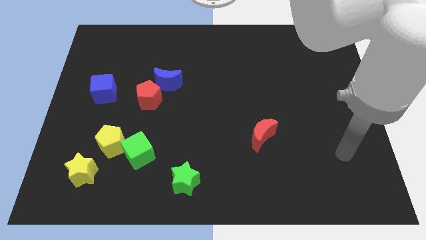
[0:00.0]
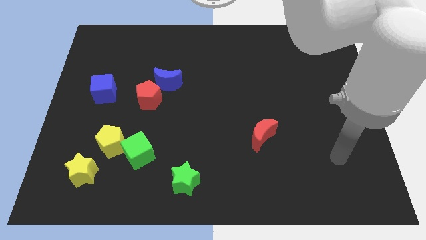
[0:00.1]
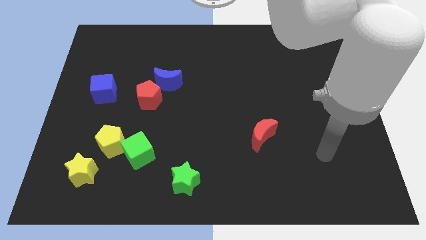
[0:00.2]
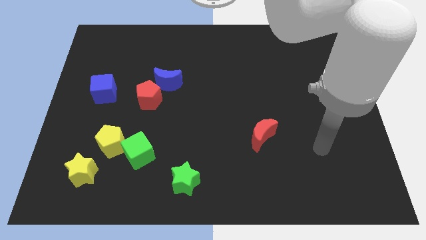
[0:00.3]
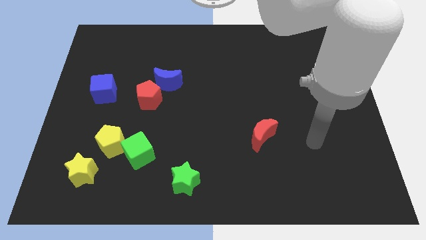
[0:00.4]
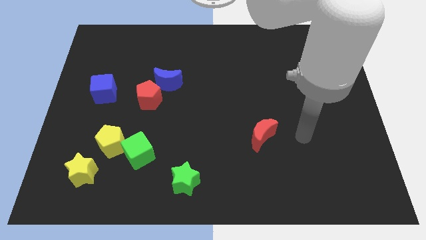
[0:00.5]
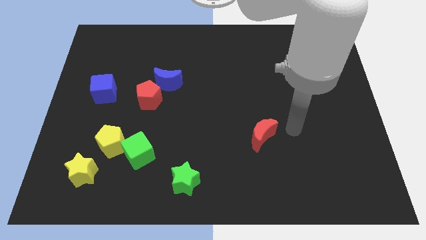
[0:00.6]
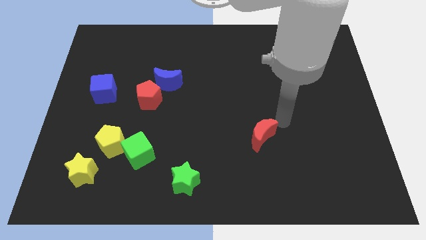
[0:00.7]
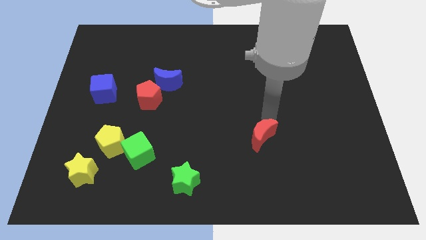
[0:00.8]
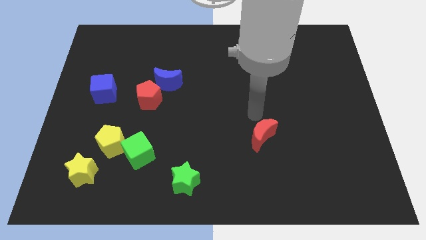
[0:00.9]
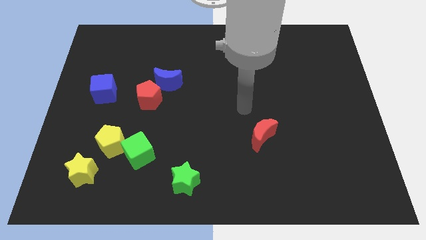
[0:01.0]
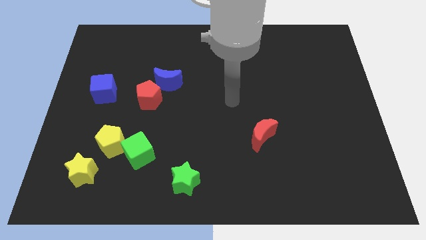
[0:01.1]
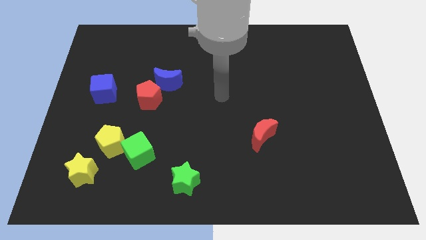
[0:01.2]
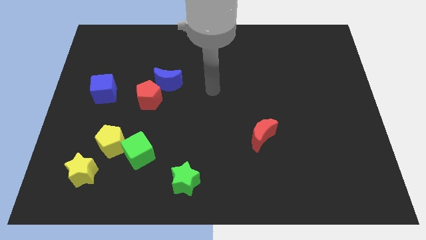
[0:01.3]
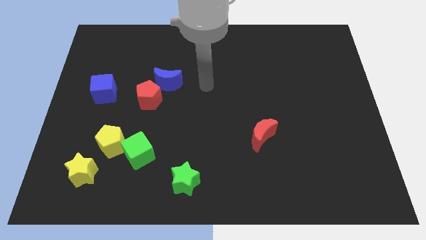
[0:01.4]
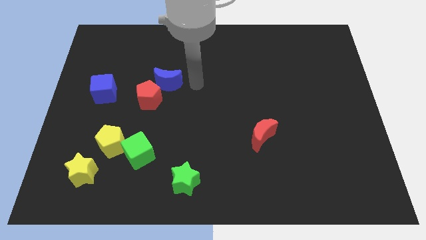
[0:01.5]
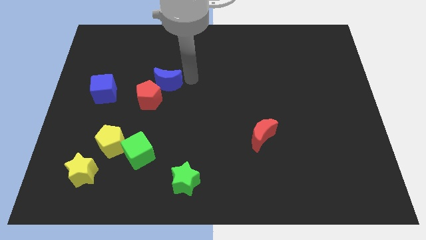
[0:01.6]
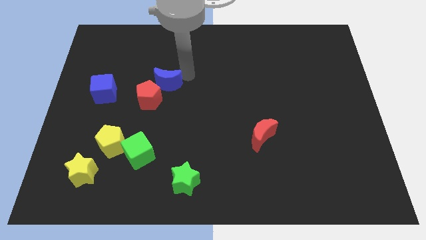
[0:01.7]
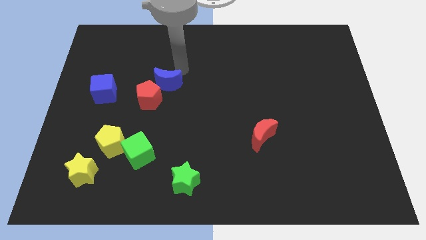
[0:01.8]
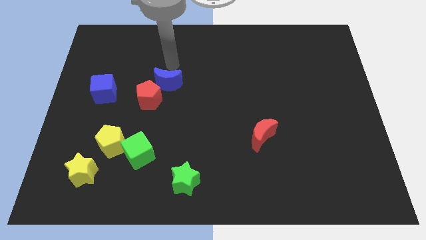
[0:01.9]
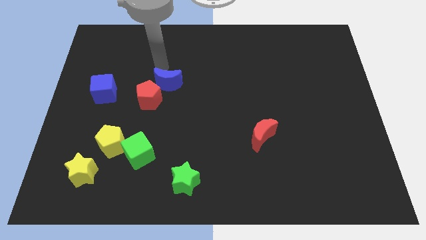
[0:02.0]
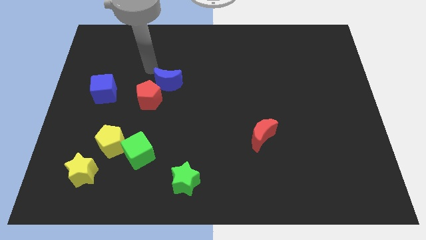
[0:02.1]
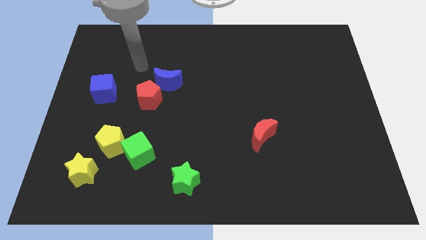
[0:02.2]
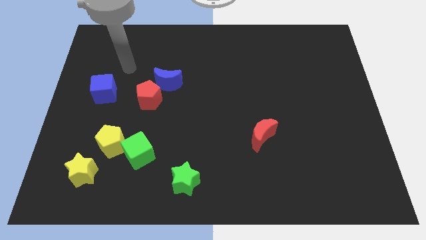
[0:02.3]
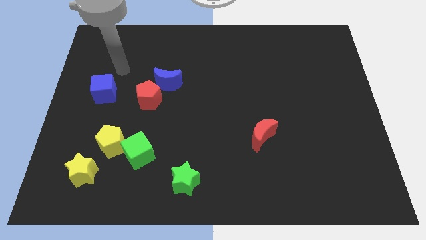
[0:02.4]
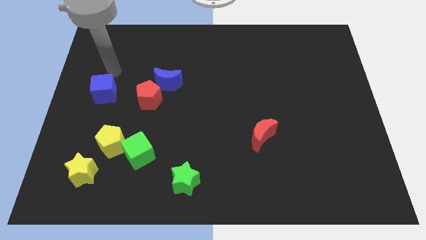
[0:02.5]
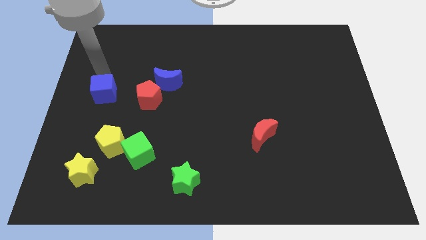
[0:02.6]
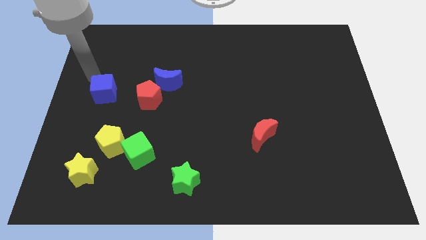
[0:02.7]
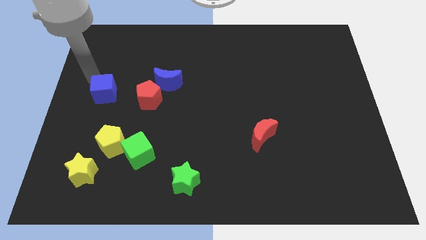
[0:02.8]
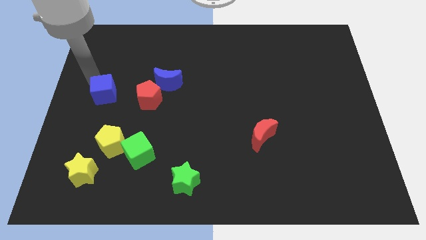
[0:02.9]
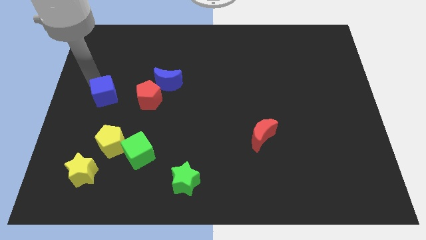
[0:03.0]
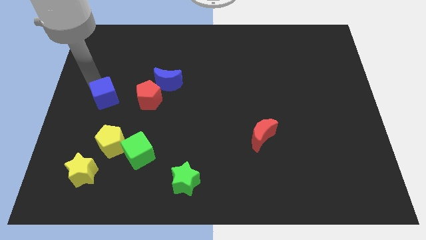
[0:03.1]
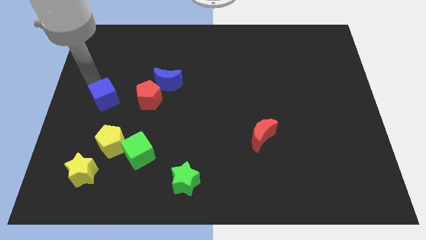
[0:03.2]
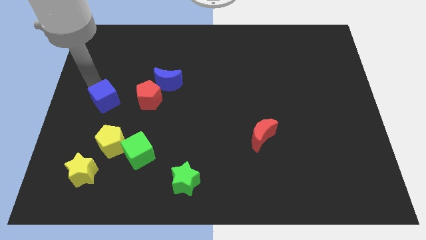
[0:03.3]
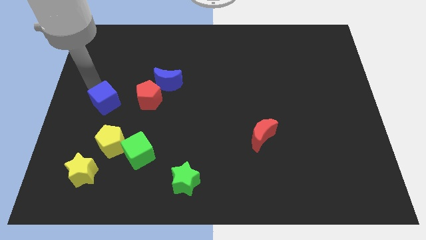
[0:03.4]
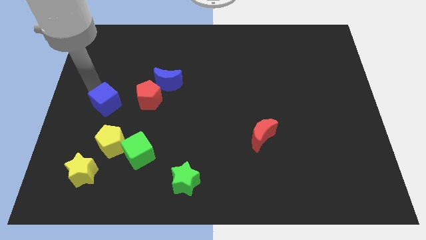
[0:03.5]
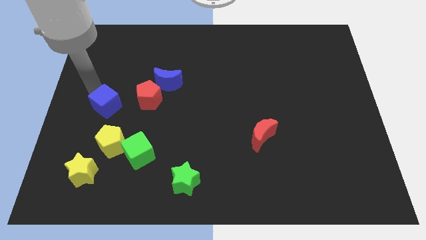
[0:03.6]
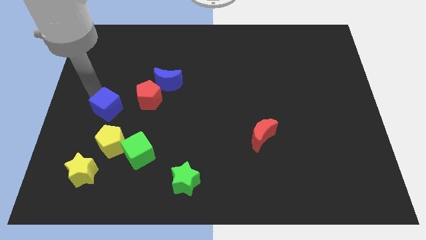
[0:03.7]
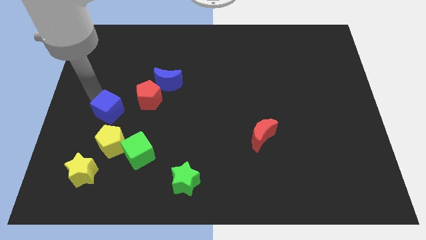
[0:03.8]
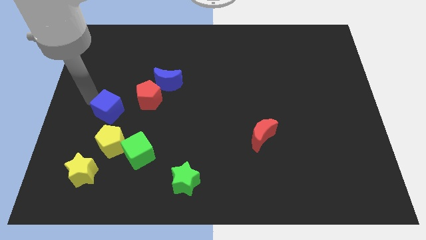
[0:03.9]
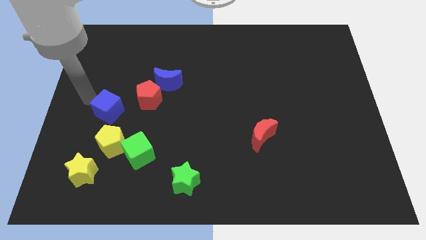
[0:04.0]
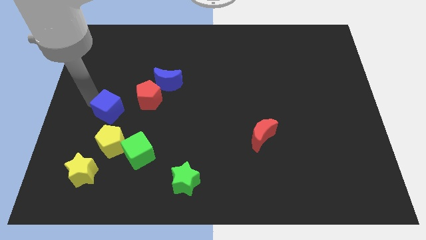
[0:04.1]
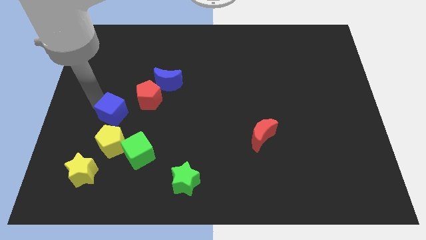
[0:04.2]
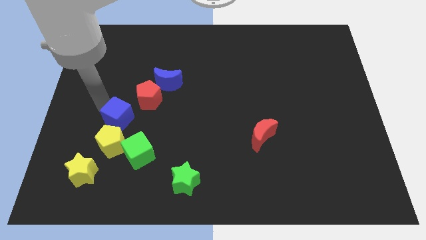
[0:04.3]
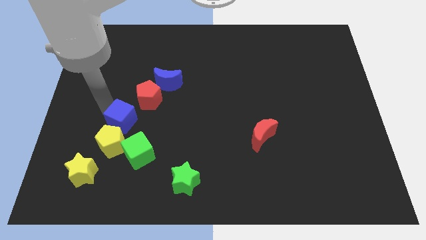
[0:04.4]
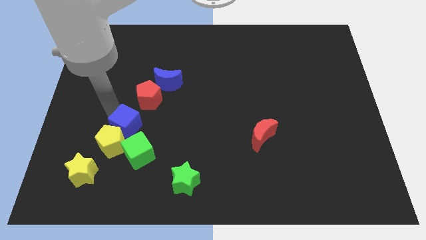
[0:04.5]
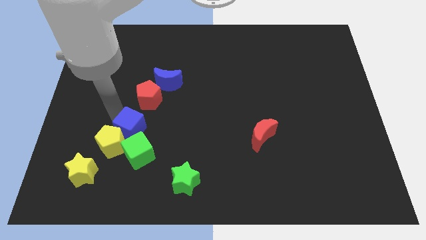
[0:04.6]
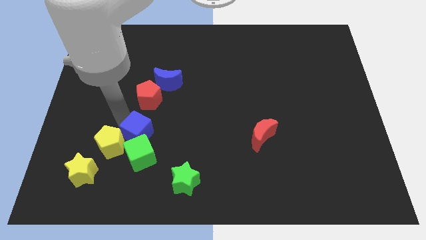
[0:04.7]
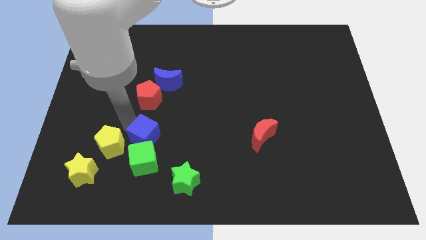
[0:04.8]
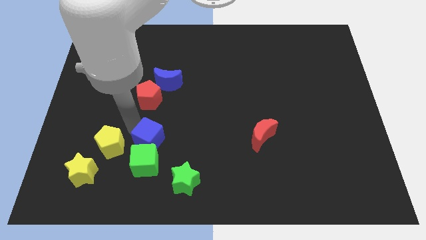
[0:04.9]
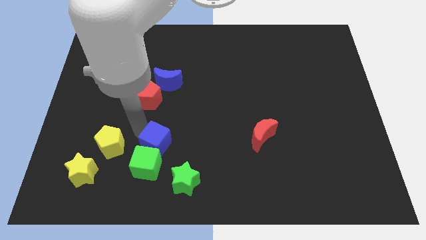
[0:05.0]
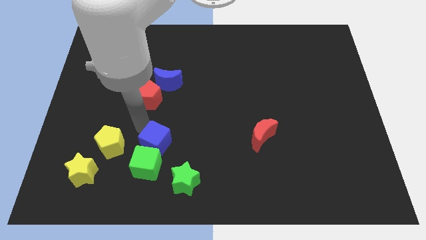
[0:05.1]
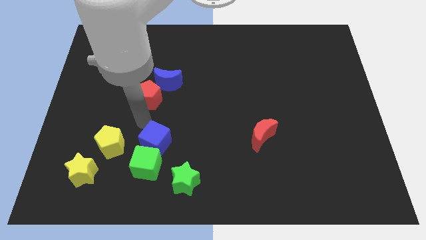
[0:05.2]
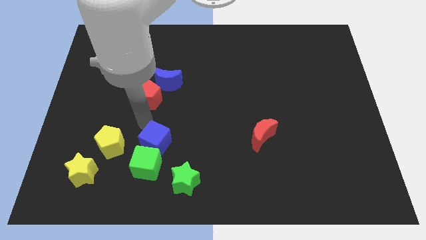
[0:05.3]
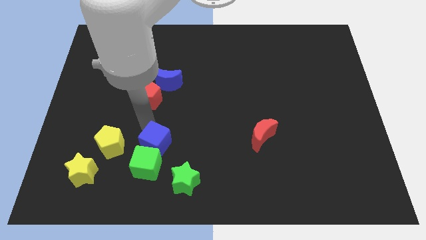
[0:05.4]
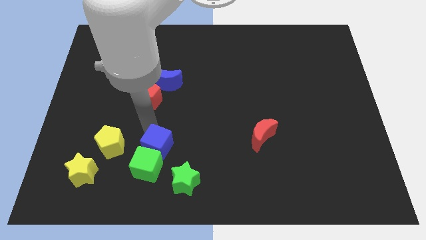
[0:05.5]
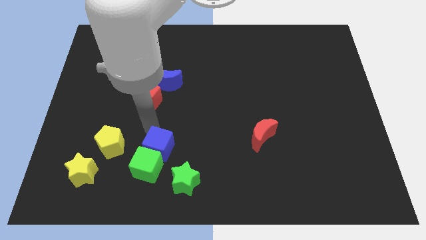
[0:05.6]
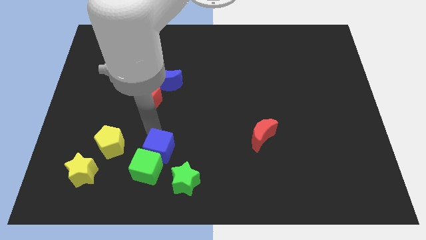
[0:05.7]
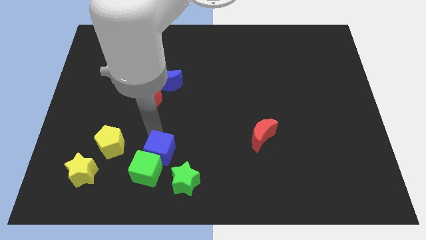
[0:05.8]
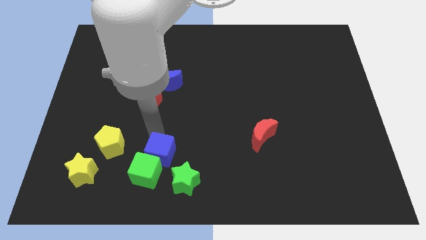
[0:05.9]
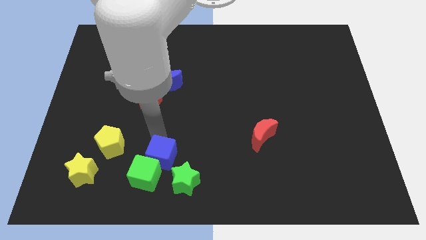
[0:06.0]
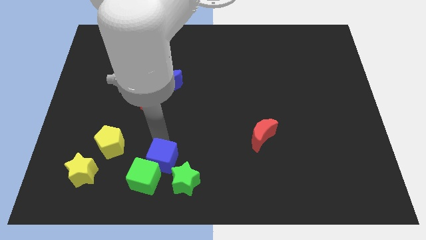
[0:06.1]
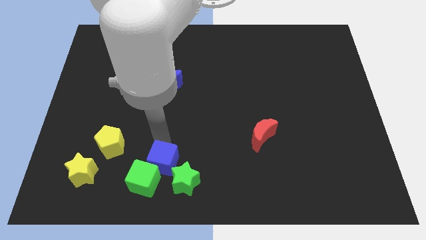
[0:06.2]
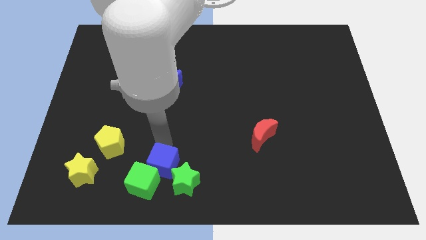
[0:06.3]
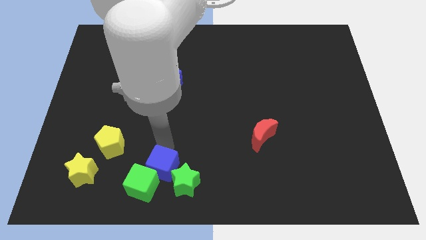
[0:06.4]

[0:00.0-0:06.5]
move the blue cube towards the green star

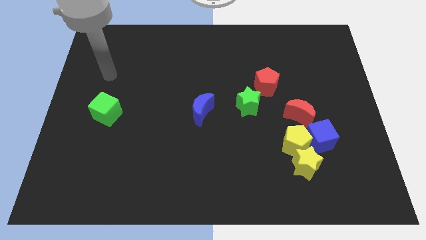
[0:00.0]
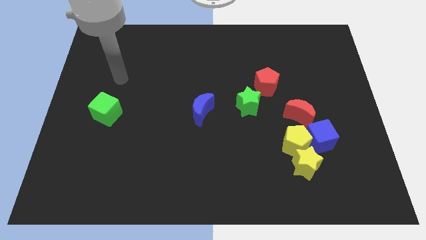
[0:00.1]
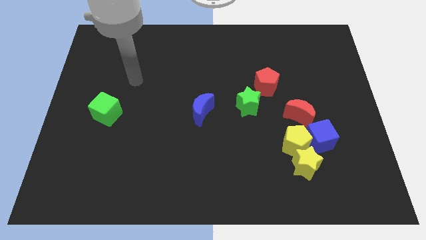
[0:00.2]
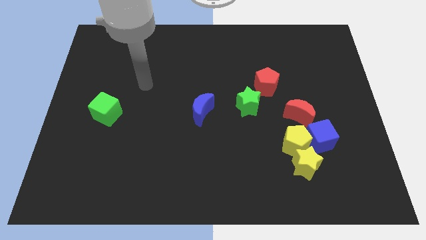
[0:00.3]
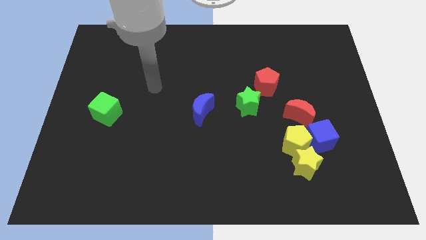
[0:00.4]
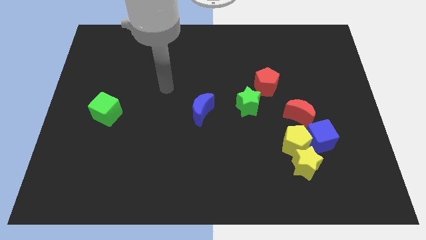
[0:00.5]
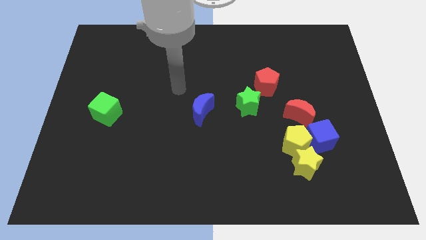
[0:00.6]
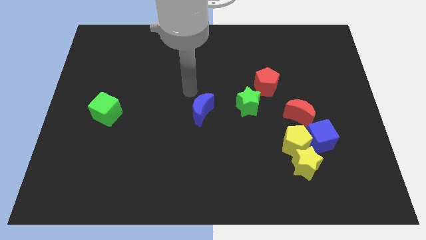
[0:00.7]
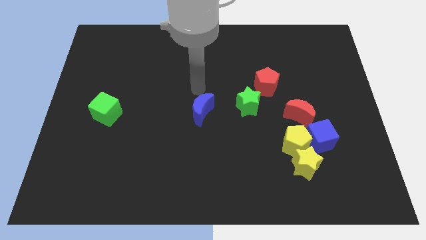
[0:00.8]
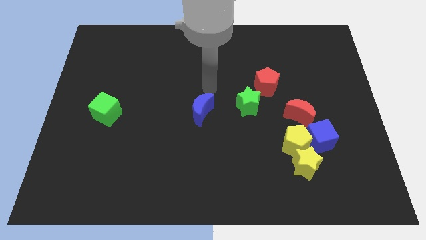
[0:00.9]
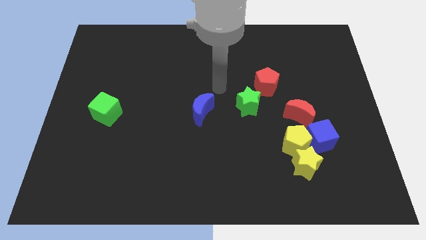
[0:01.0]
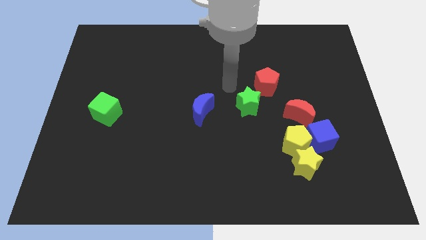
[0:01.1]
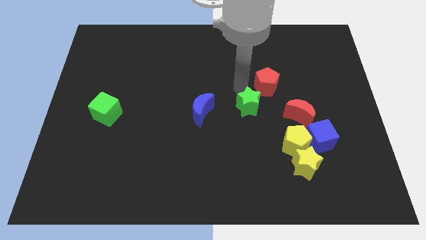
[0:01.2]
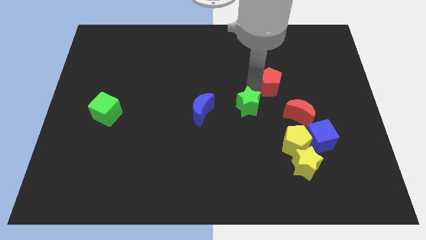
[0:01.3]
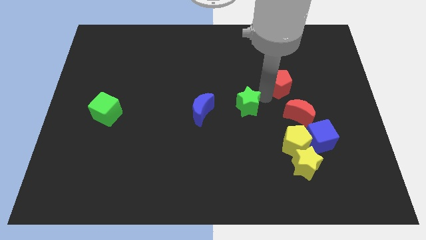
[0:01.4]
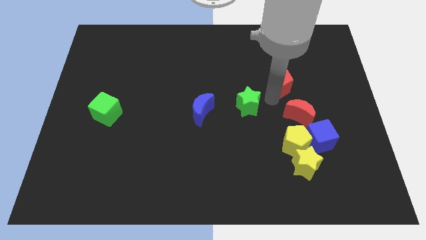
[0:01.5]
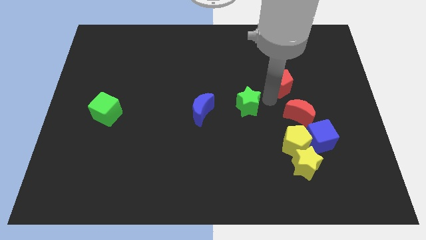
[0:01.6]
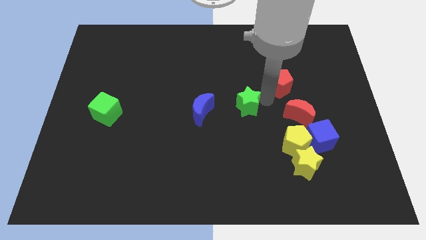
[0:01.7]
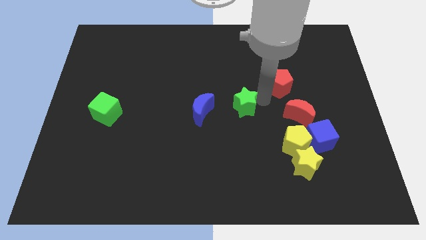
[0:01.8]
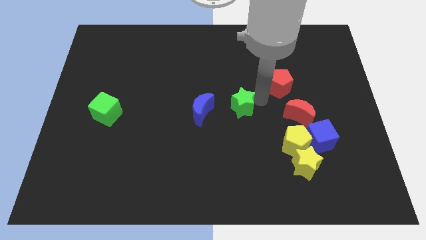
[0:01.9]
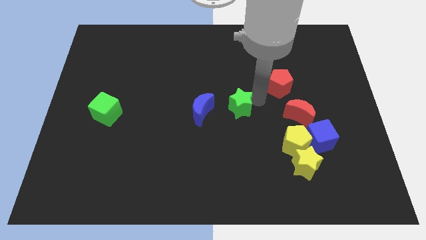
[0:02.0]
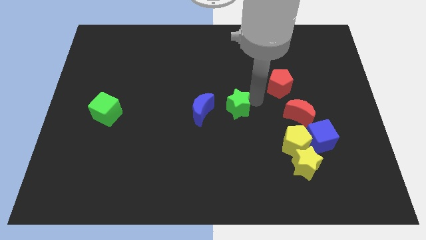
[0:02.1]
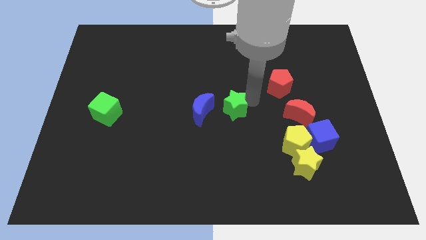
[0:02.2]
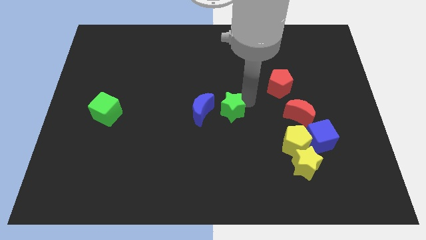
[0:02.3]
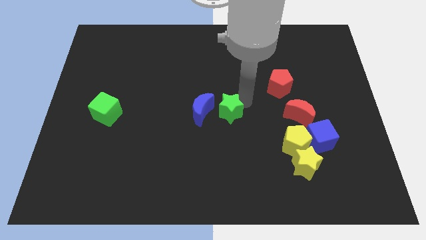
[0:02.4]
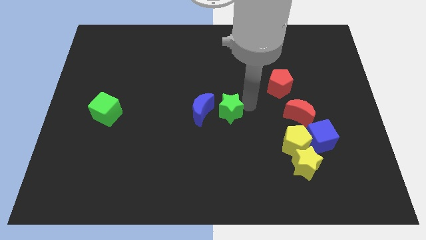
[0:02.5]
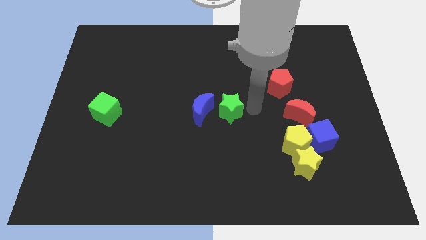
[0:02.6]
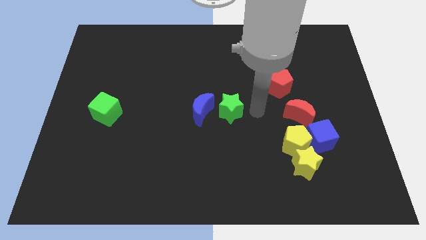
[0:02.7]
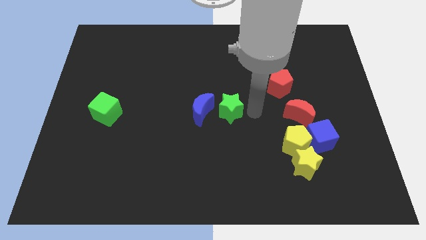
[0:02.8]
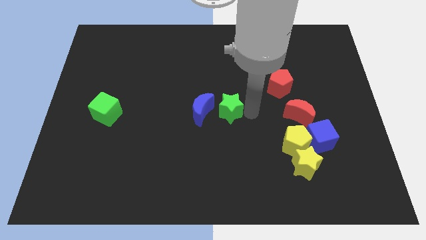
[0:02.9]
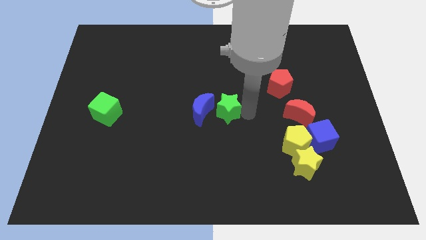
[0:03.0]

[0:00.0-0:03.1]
slide the green star to the blue moon
